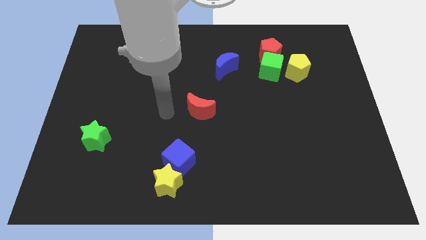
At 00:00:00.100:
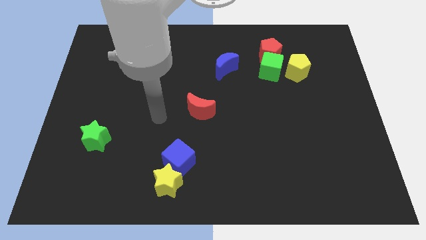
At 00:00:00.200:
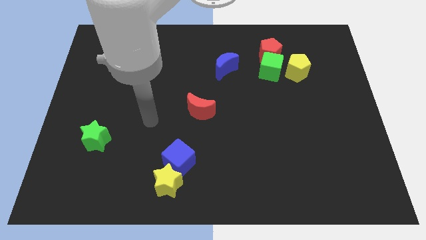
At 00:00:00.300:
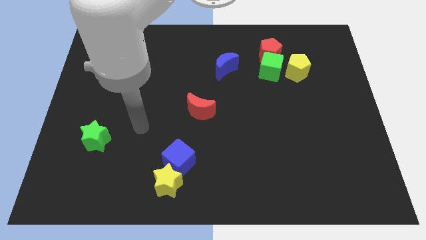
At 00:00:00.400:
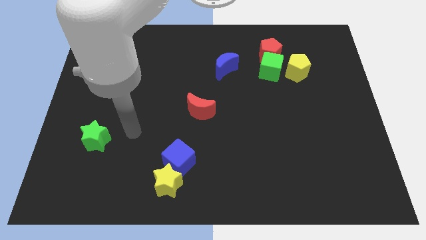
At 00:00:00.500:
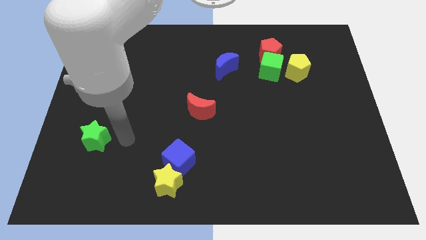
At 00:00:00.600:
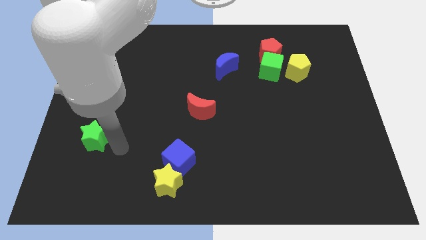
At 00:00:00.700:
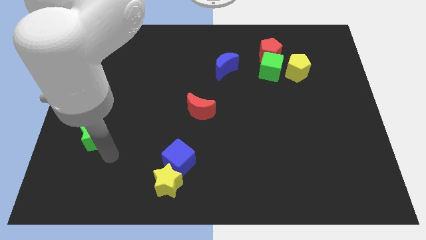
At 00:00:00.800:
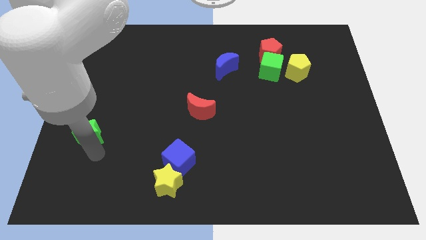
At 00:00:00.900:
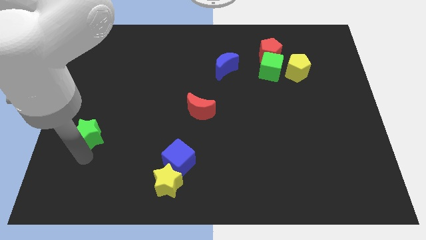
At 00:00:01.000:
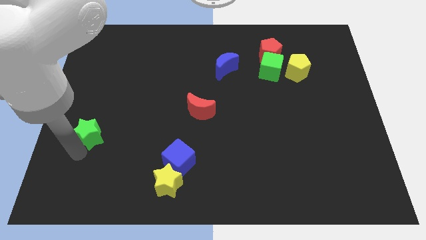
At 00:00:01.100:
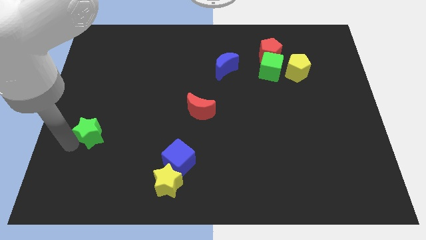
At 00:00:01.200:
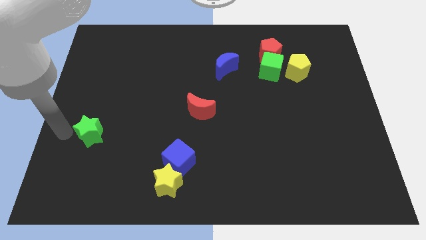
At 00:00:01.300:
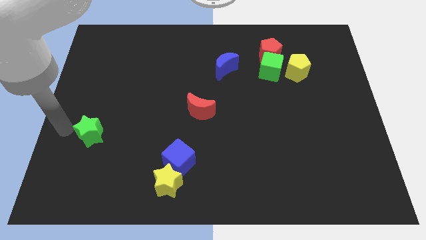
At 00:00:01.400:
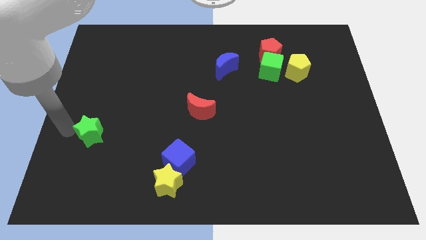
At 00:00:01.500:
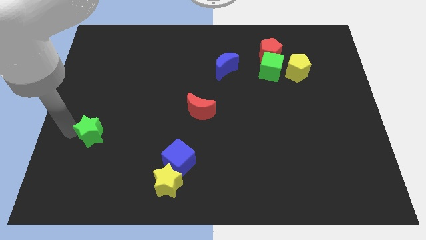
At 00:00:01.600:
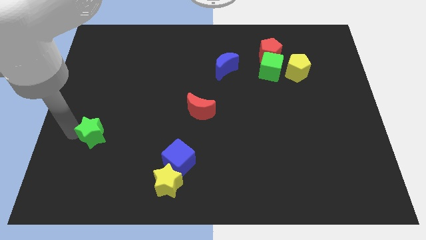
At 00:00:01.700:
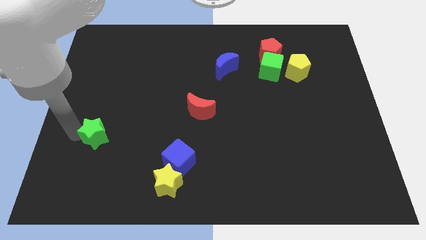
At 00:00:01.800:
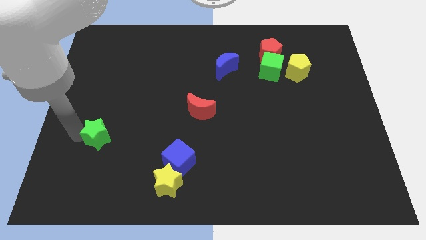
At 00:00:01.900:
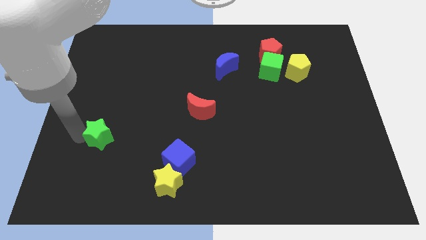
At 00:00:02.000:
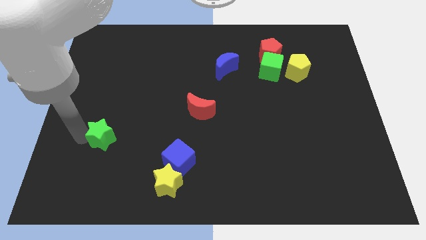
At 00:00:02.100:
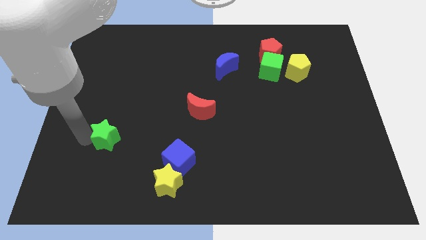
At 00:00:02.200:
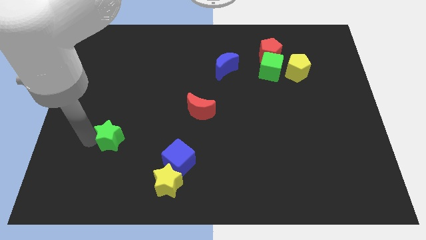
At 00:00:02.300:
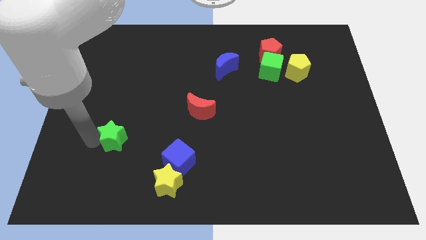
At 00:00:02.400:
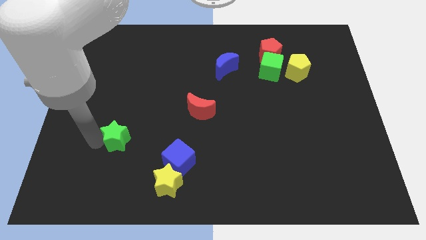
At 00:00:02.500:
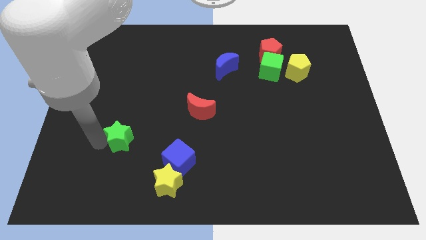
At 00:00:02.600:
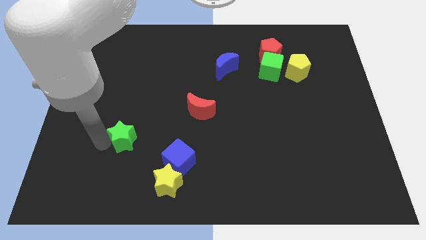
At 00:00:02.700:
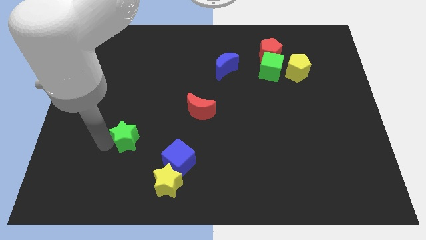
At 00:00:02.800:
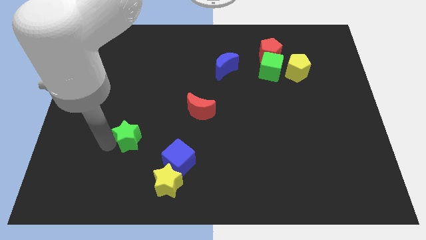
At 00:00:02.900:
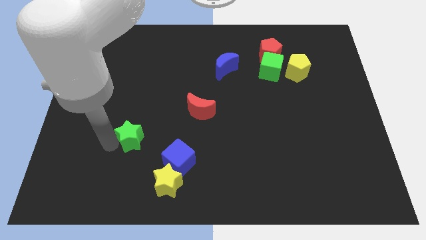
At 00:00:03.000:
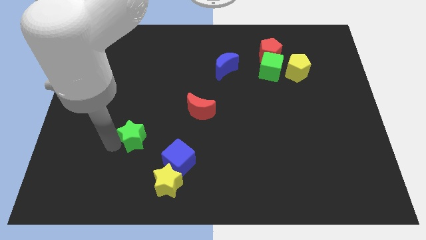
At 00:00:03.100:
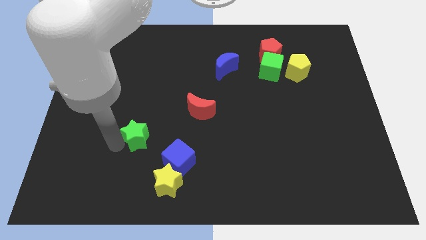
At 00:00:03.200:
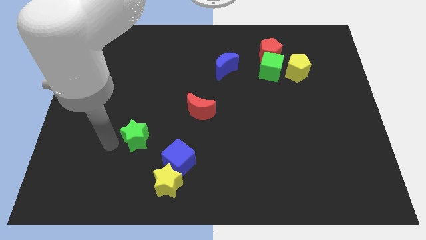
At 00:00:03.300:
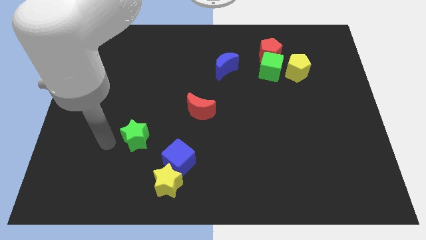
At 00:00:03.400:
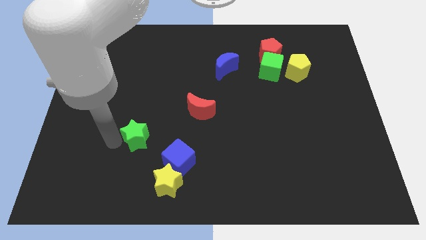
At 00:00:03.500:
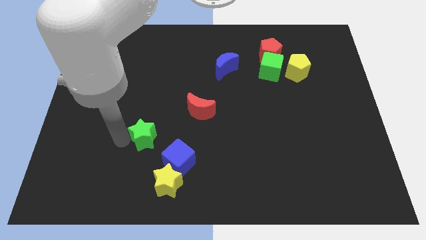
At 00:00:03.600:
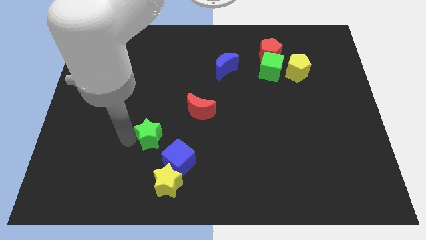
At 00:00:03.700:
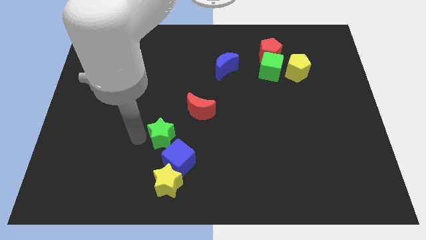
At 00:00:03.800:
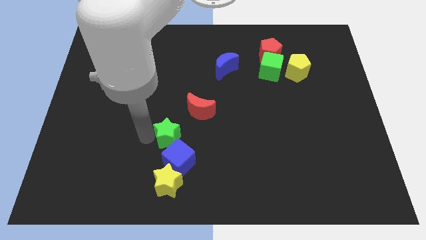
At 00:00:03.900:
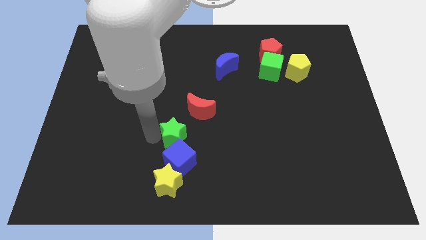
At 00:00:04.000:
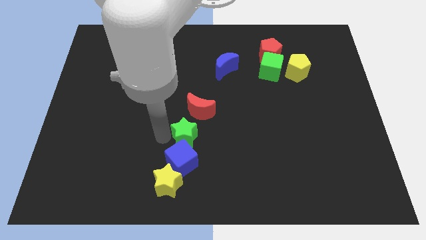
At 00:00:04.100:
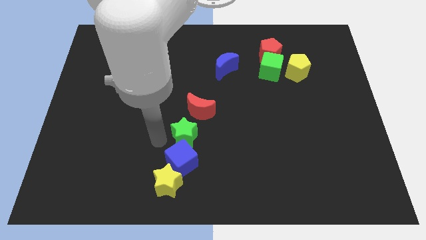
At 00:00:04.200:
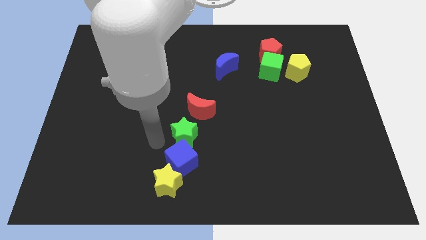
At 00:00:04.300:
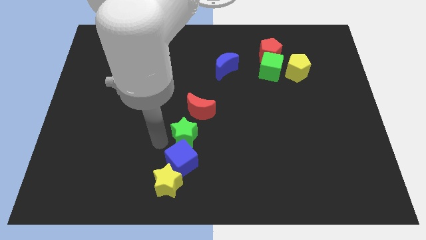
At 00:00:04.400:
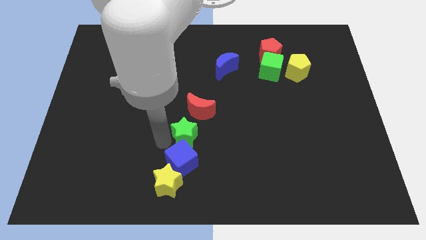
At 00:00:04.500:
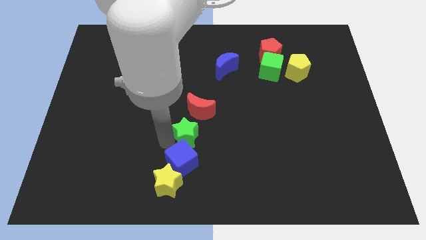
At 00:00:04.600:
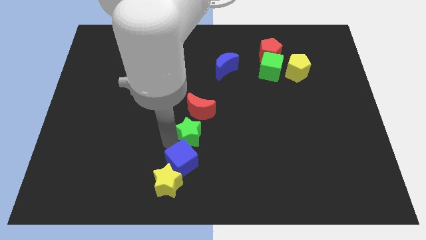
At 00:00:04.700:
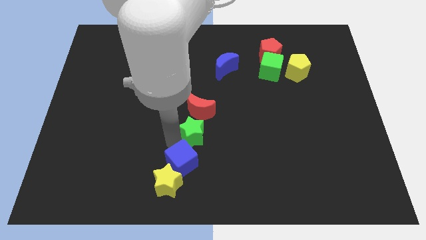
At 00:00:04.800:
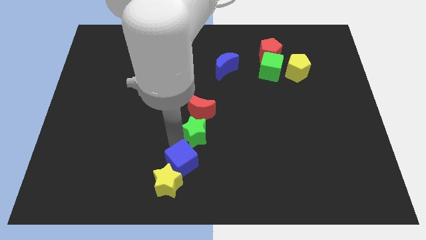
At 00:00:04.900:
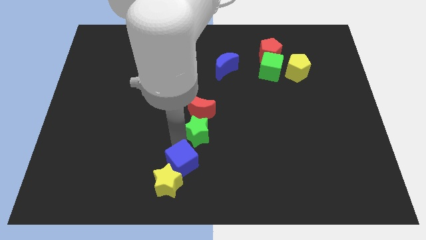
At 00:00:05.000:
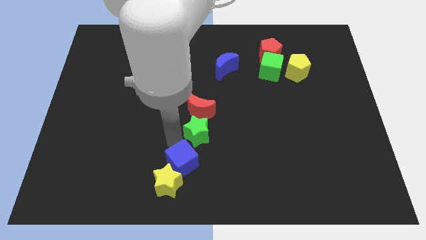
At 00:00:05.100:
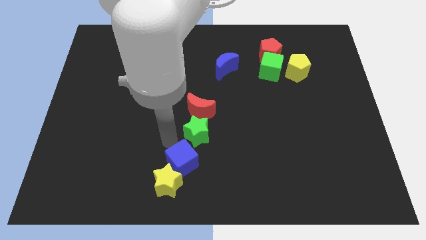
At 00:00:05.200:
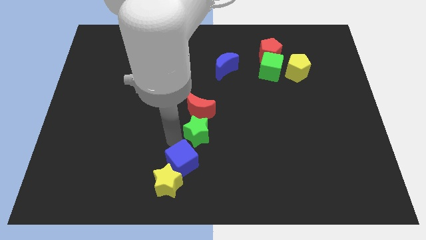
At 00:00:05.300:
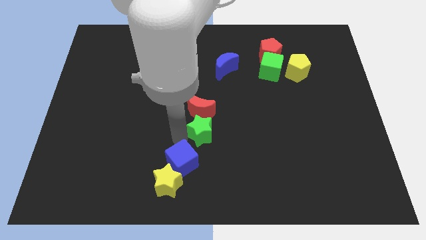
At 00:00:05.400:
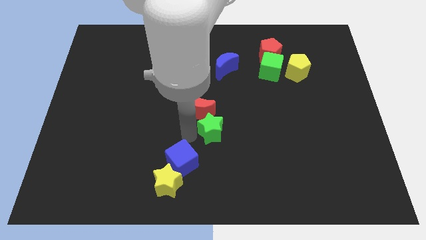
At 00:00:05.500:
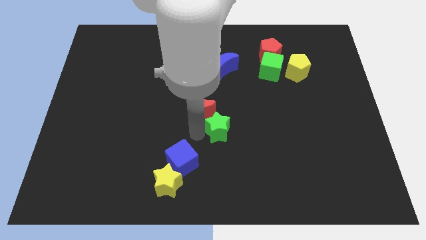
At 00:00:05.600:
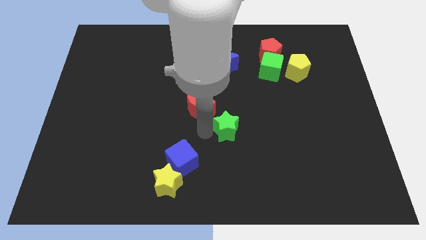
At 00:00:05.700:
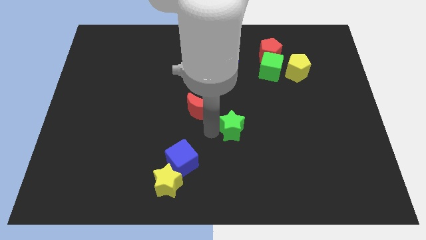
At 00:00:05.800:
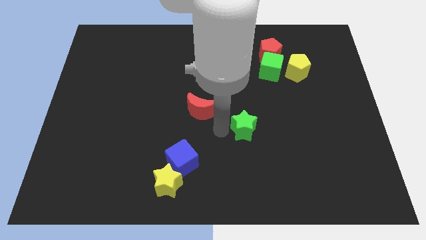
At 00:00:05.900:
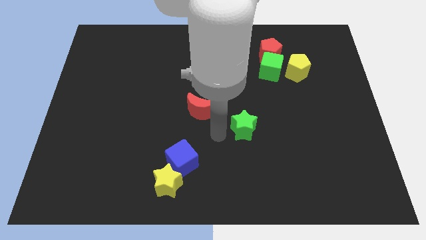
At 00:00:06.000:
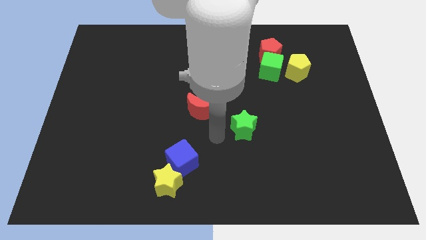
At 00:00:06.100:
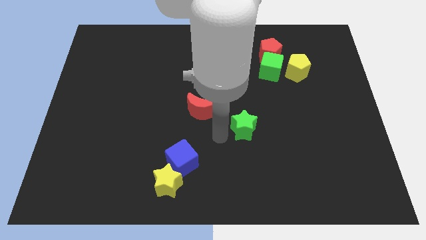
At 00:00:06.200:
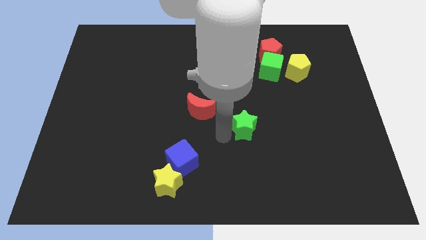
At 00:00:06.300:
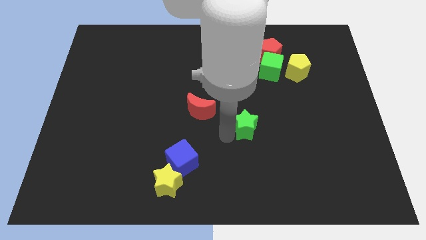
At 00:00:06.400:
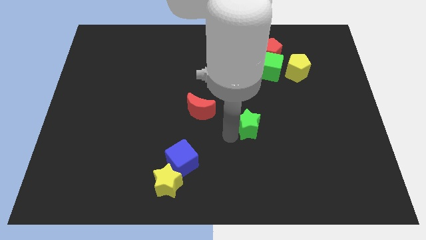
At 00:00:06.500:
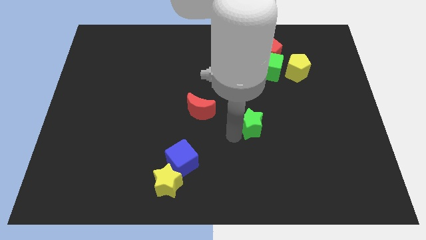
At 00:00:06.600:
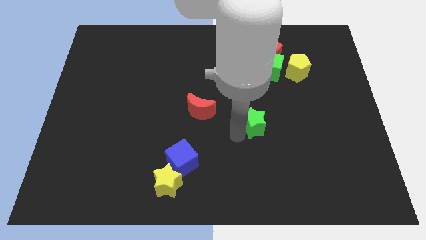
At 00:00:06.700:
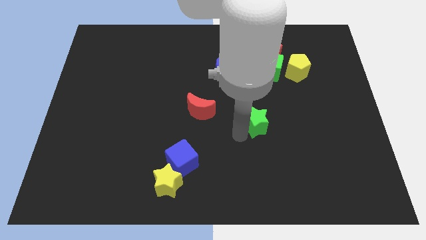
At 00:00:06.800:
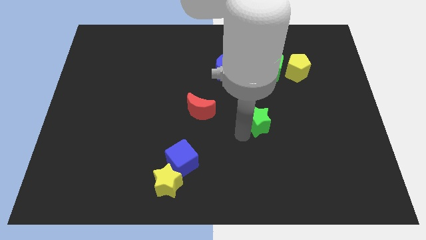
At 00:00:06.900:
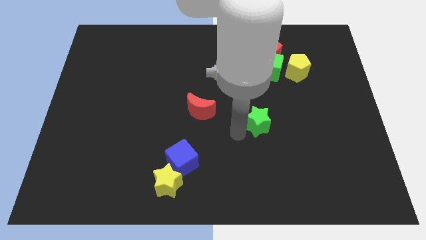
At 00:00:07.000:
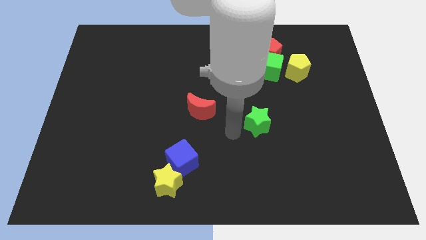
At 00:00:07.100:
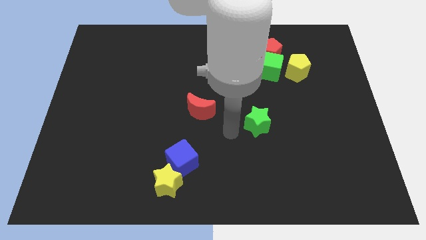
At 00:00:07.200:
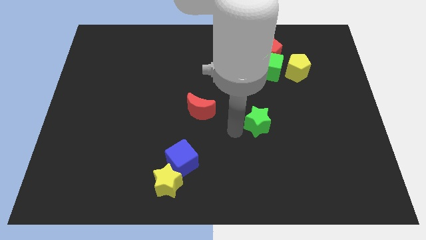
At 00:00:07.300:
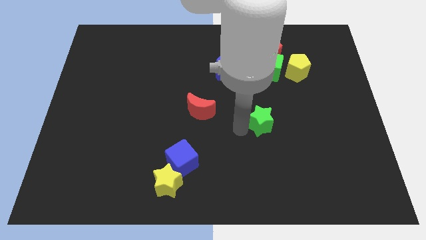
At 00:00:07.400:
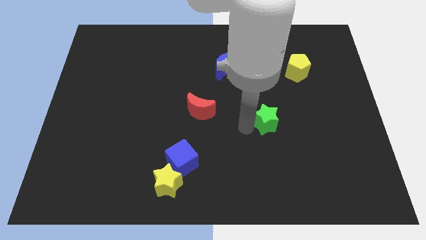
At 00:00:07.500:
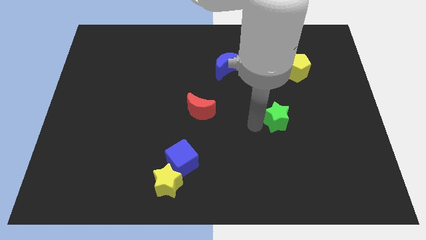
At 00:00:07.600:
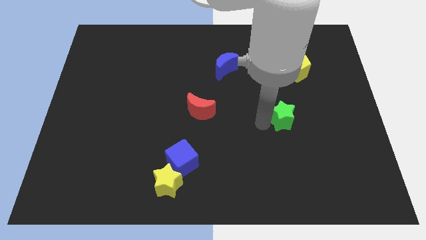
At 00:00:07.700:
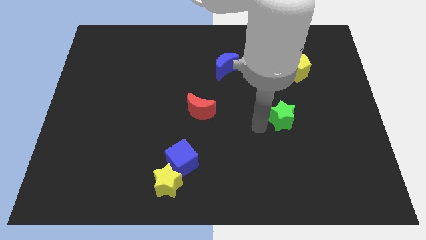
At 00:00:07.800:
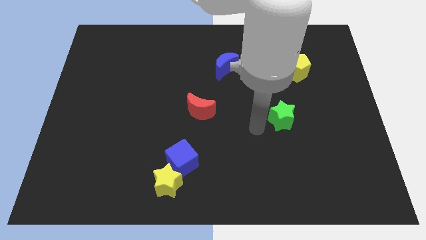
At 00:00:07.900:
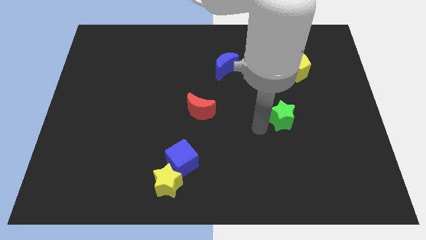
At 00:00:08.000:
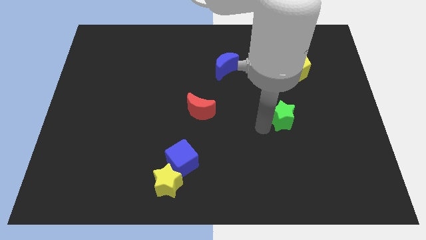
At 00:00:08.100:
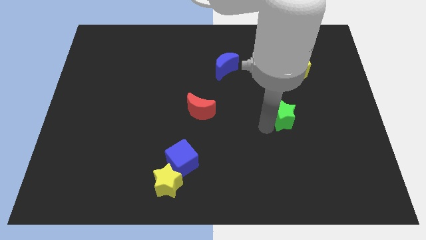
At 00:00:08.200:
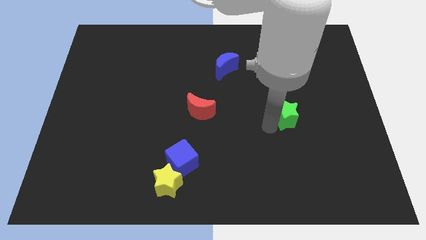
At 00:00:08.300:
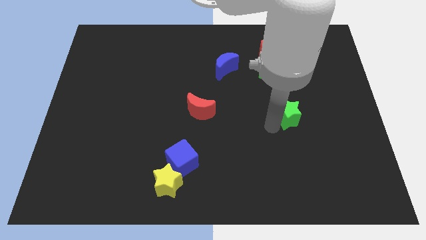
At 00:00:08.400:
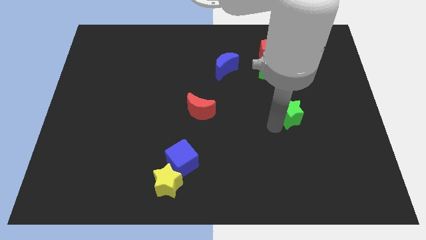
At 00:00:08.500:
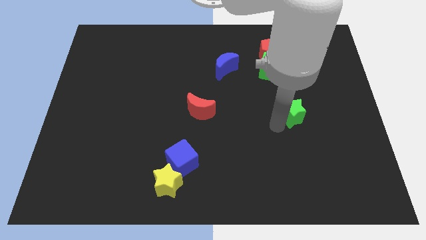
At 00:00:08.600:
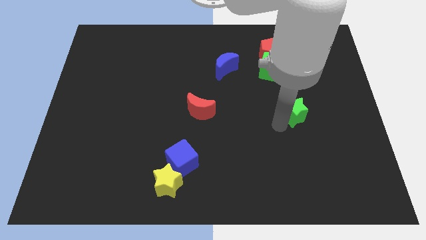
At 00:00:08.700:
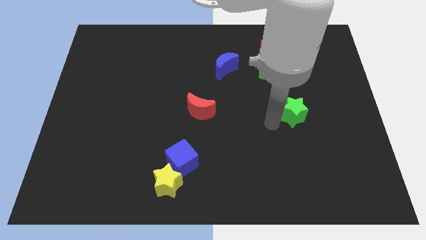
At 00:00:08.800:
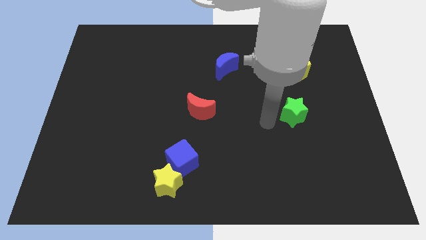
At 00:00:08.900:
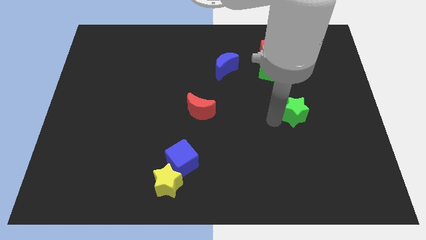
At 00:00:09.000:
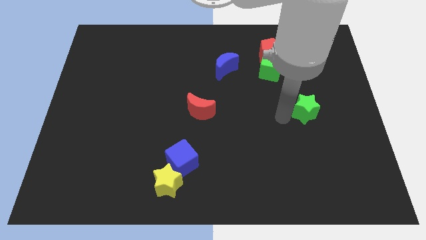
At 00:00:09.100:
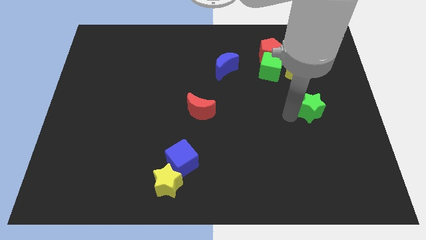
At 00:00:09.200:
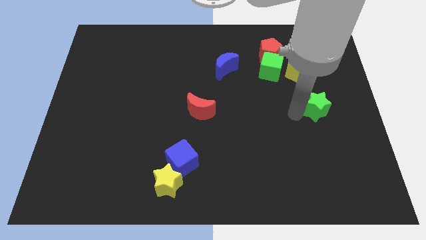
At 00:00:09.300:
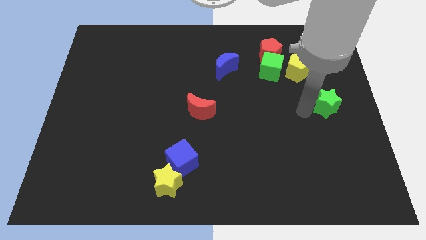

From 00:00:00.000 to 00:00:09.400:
push the green star to the right side
